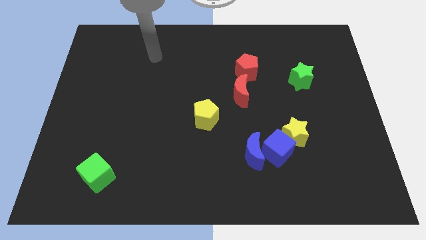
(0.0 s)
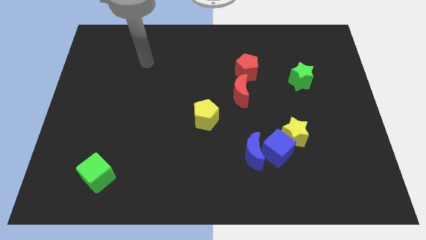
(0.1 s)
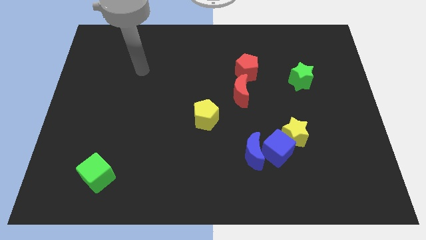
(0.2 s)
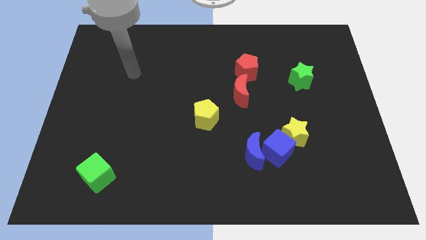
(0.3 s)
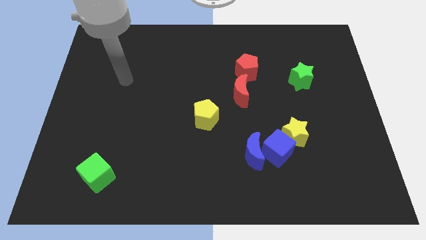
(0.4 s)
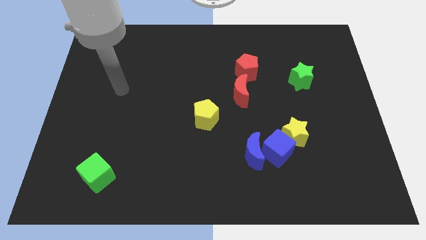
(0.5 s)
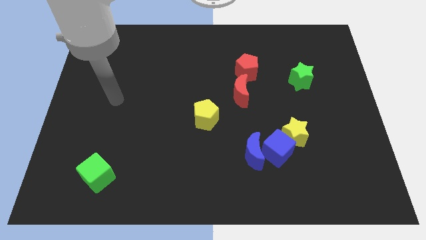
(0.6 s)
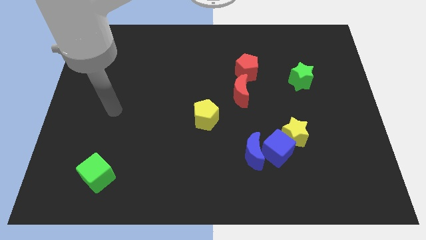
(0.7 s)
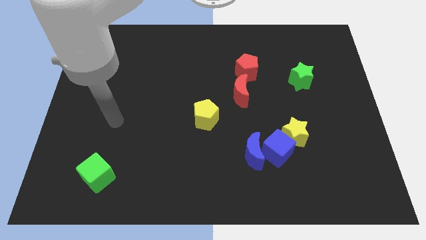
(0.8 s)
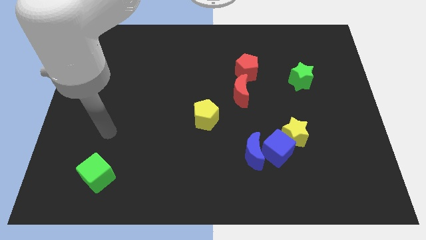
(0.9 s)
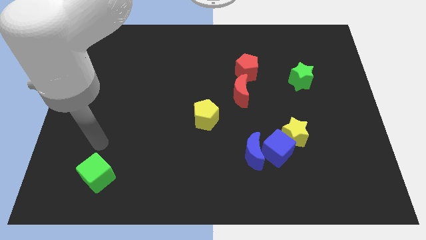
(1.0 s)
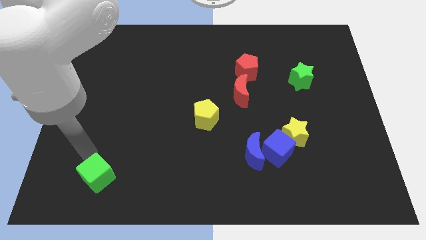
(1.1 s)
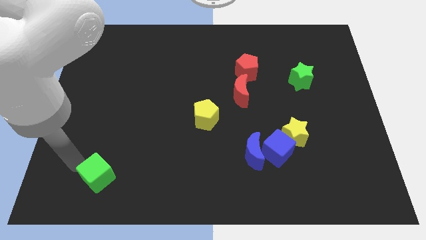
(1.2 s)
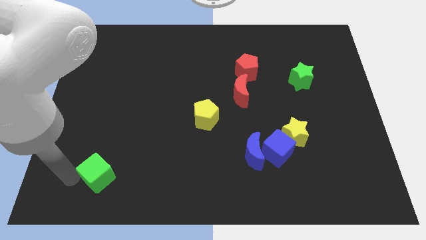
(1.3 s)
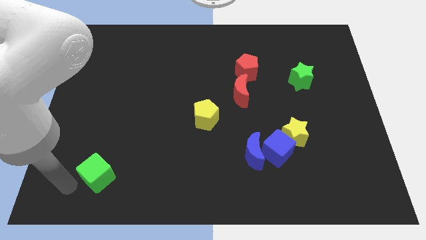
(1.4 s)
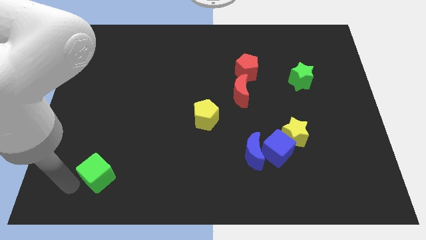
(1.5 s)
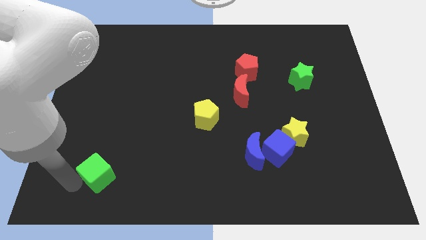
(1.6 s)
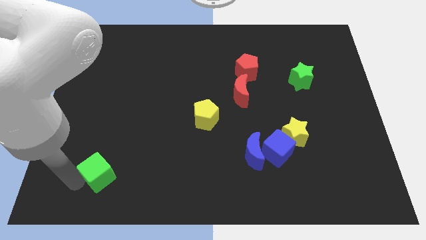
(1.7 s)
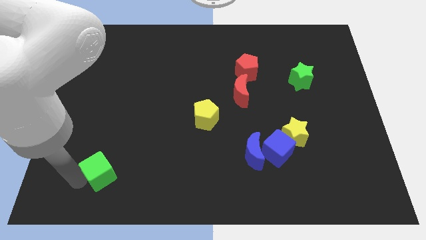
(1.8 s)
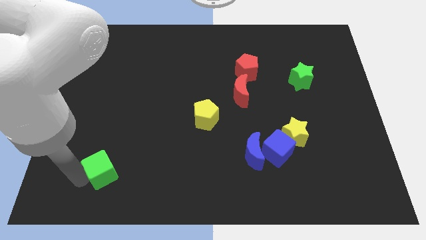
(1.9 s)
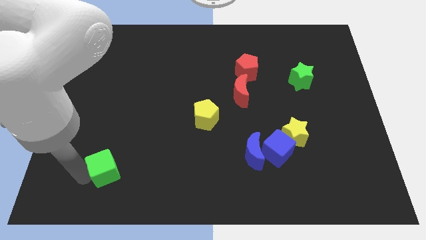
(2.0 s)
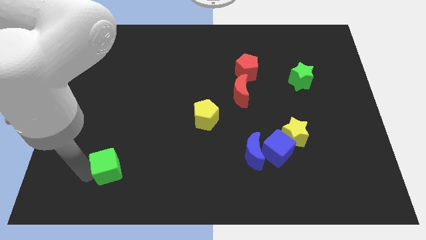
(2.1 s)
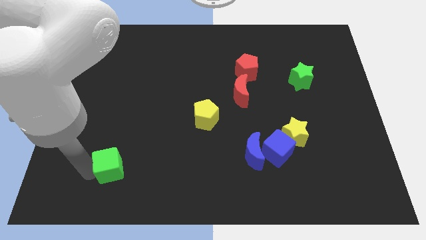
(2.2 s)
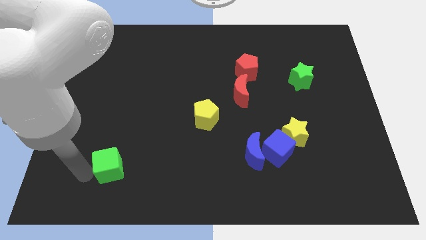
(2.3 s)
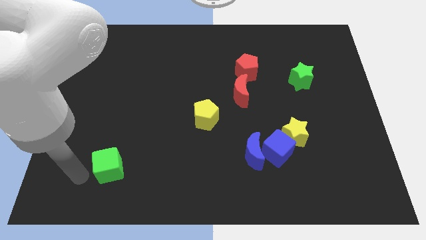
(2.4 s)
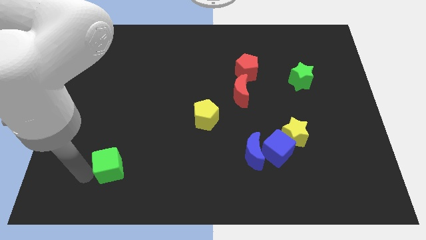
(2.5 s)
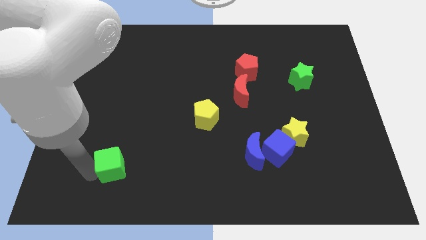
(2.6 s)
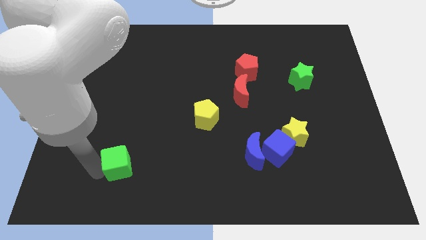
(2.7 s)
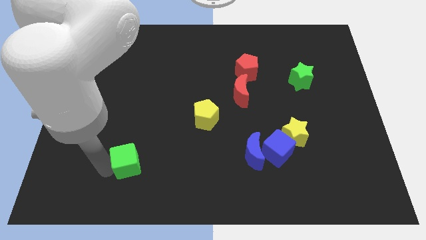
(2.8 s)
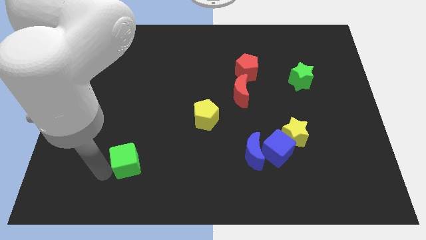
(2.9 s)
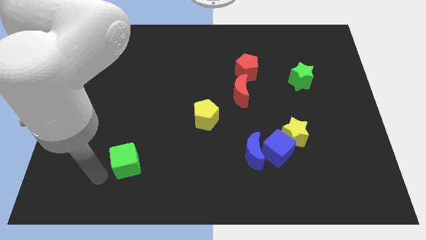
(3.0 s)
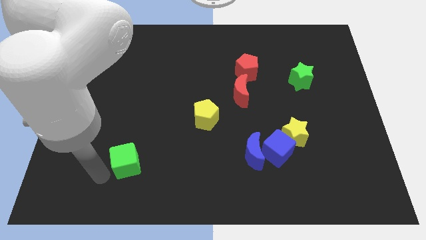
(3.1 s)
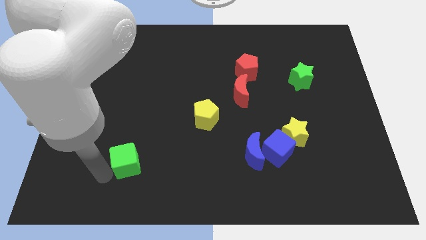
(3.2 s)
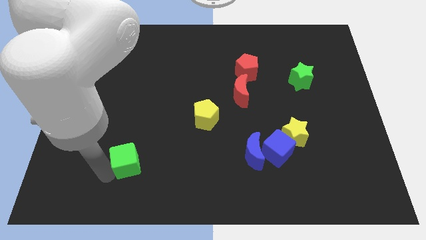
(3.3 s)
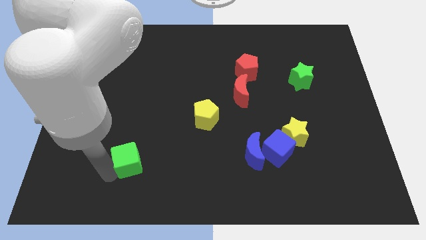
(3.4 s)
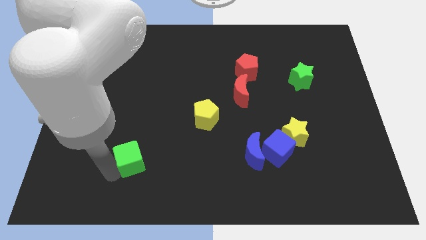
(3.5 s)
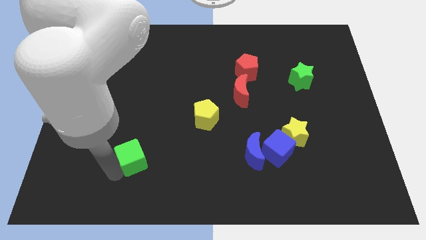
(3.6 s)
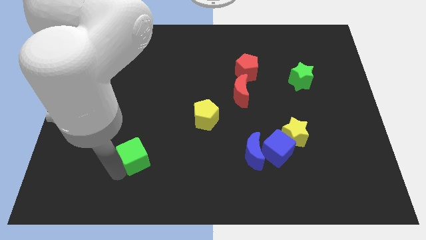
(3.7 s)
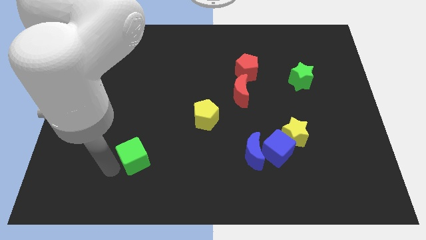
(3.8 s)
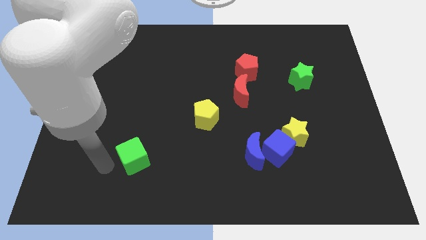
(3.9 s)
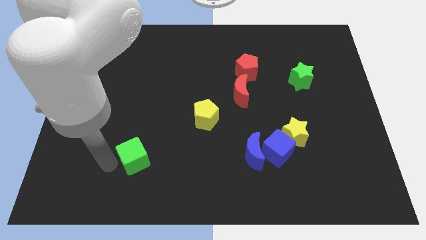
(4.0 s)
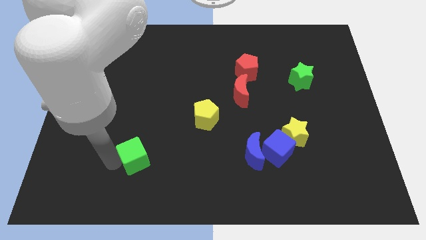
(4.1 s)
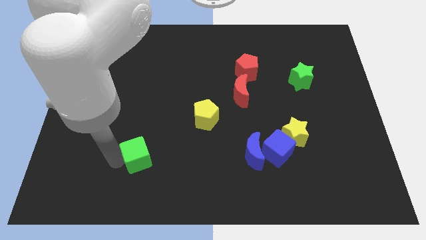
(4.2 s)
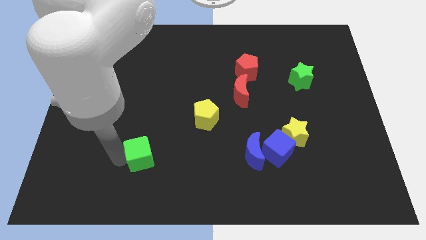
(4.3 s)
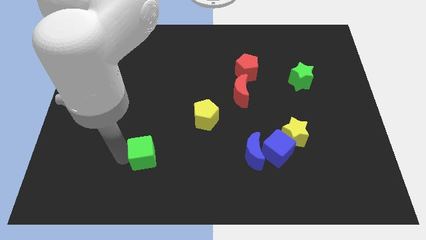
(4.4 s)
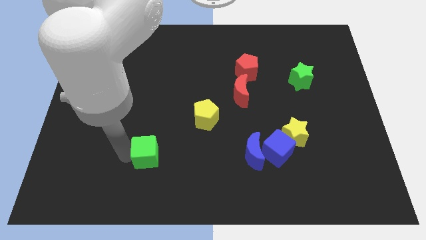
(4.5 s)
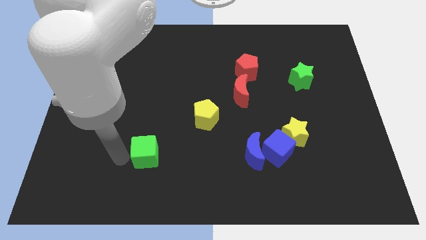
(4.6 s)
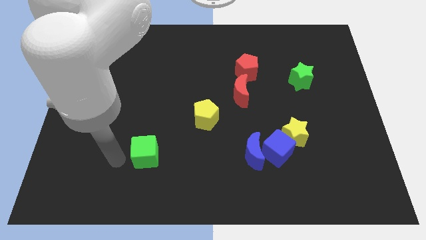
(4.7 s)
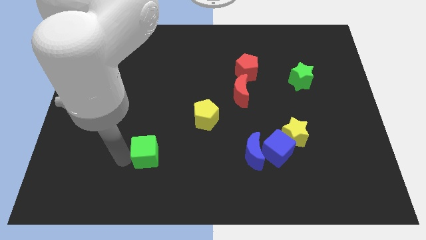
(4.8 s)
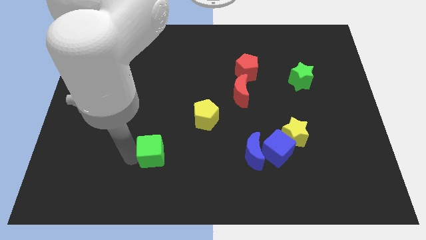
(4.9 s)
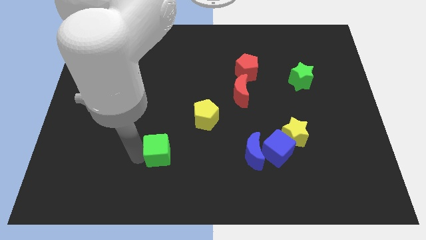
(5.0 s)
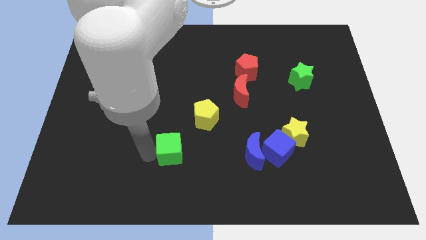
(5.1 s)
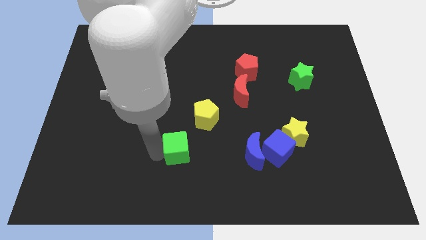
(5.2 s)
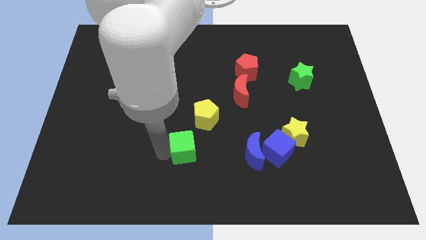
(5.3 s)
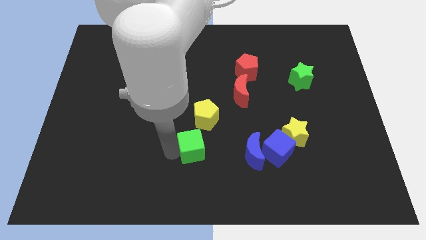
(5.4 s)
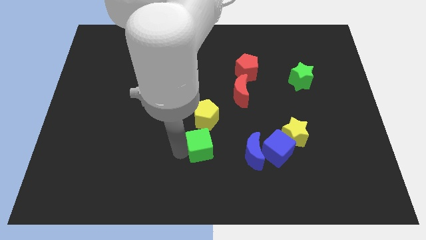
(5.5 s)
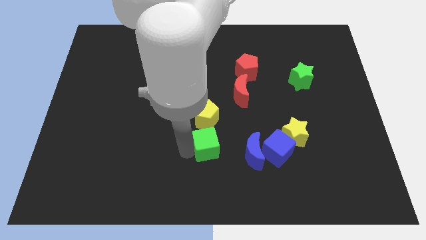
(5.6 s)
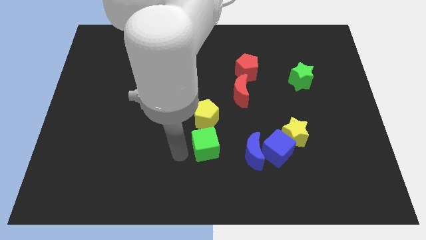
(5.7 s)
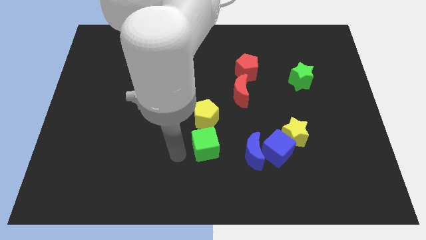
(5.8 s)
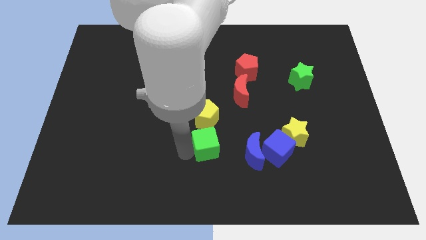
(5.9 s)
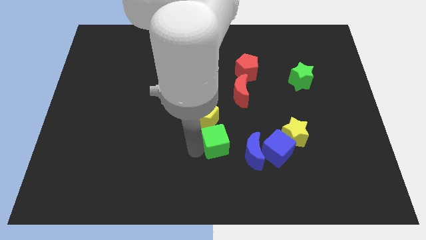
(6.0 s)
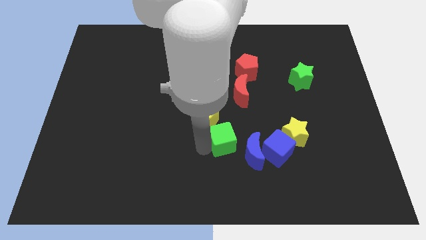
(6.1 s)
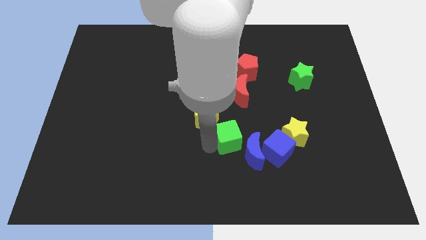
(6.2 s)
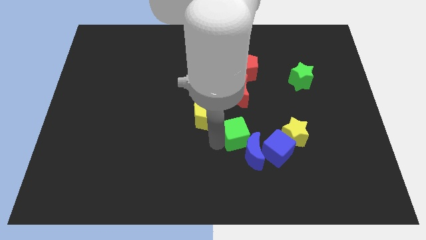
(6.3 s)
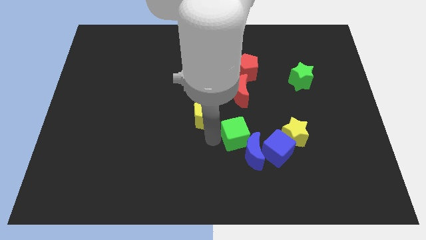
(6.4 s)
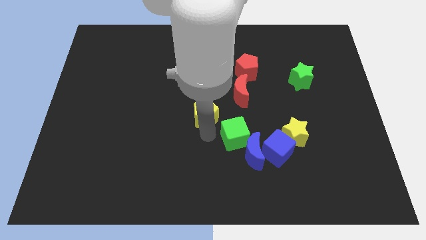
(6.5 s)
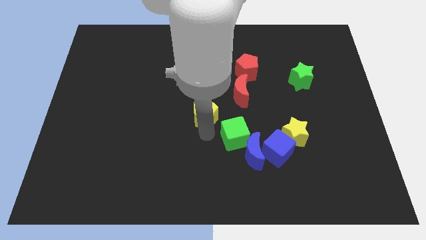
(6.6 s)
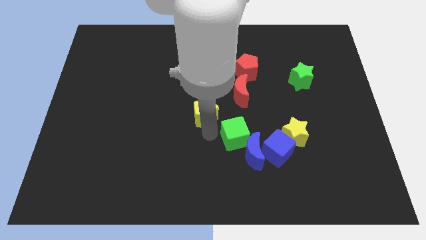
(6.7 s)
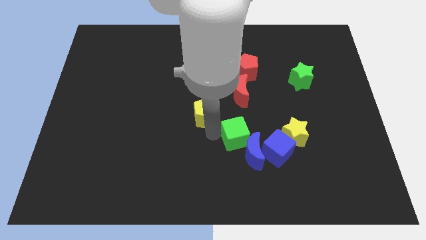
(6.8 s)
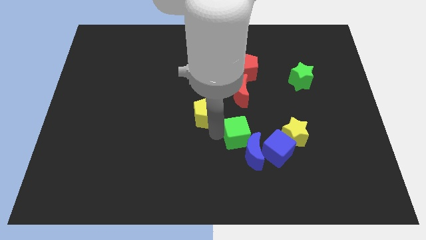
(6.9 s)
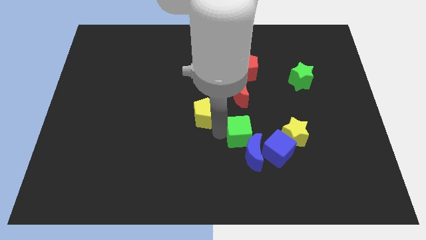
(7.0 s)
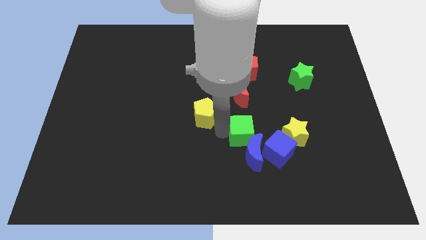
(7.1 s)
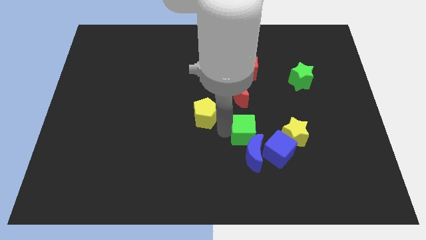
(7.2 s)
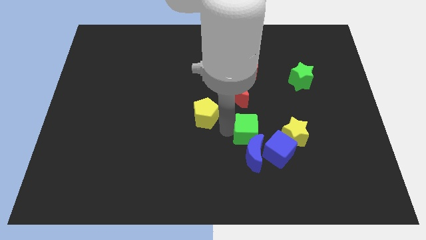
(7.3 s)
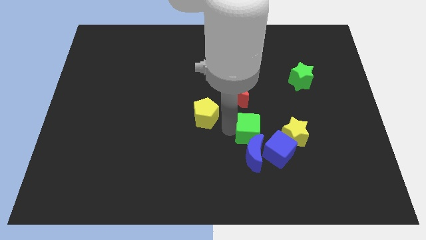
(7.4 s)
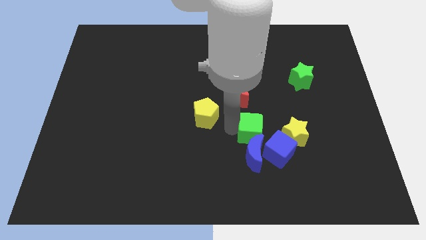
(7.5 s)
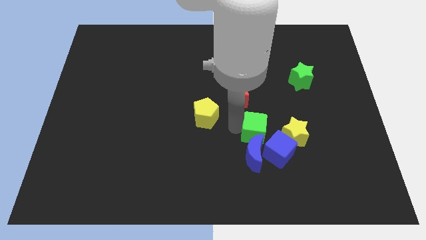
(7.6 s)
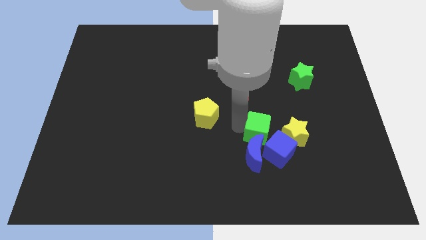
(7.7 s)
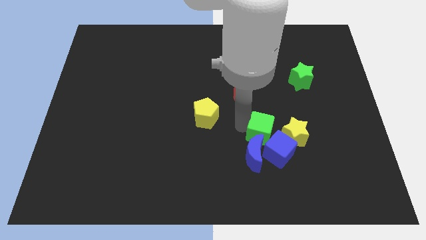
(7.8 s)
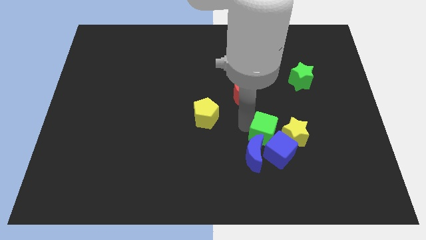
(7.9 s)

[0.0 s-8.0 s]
push the green cube to the blue cube

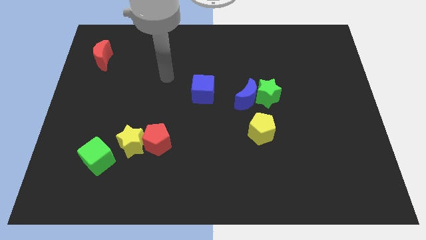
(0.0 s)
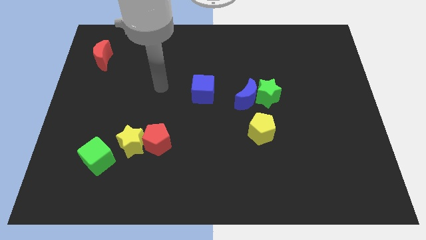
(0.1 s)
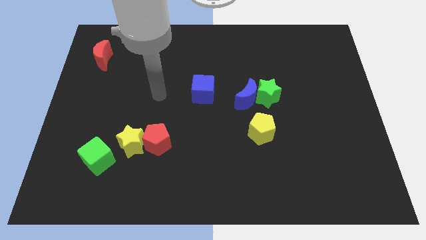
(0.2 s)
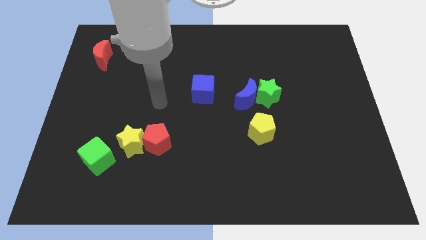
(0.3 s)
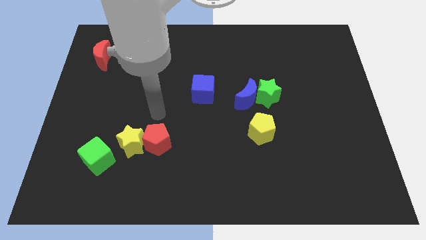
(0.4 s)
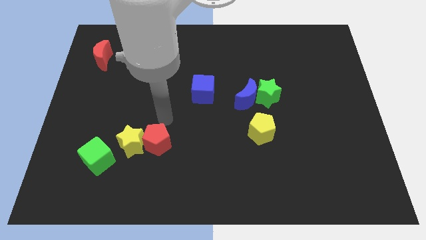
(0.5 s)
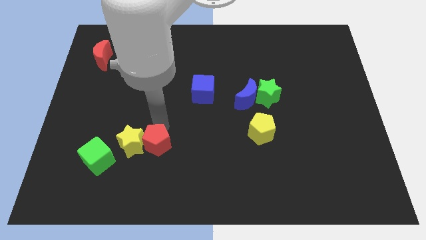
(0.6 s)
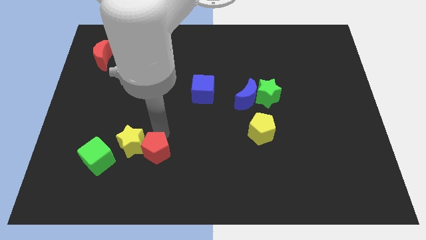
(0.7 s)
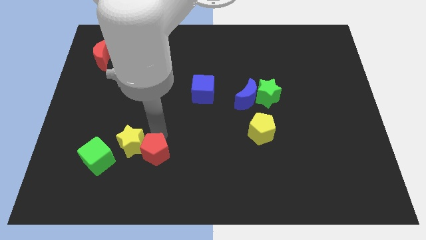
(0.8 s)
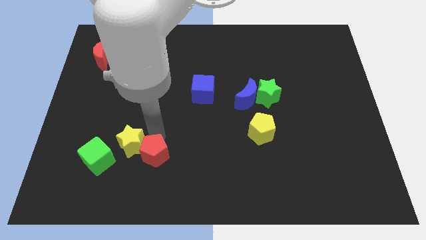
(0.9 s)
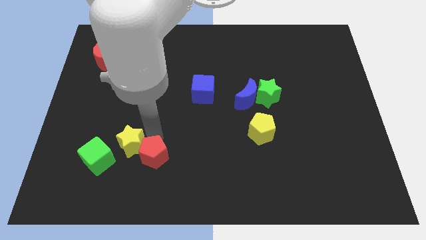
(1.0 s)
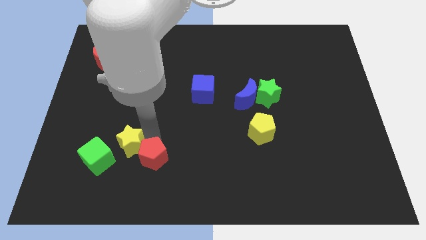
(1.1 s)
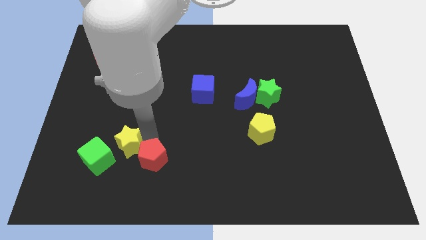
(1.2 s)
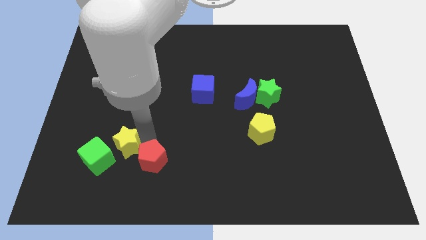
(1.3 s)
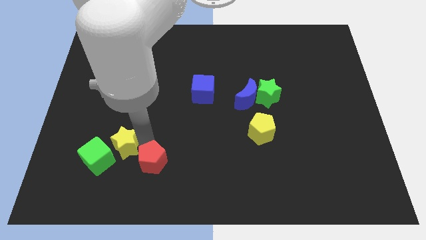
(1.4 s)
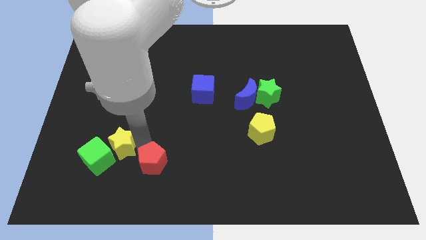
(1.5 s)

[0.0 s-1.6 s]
push the yellow star towards the green cube
